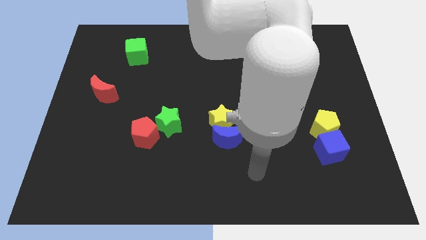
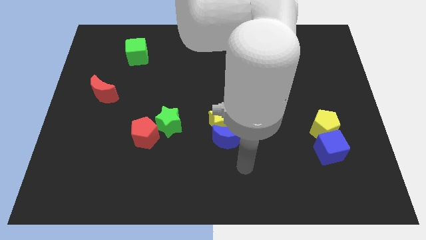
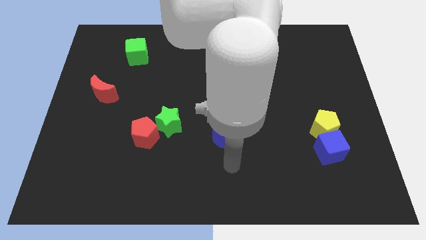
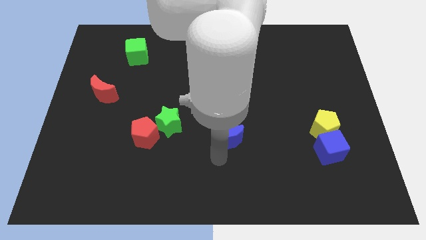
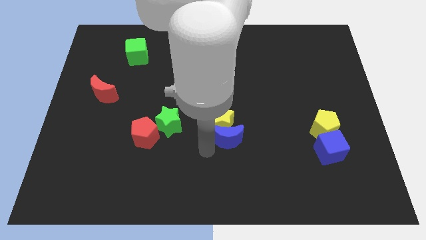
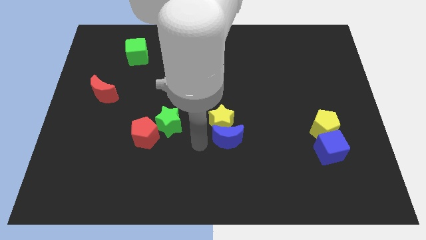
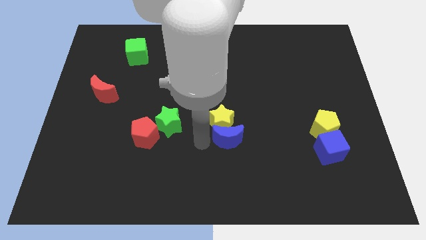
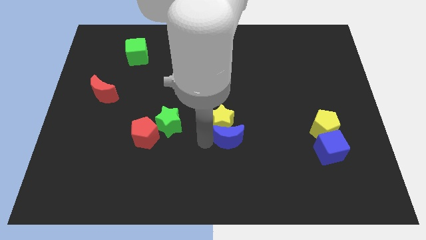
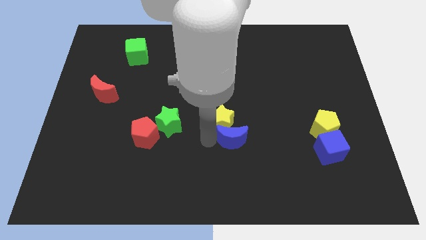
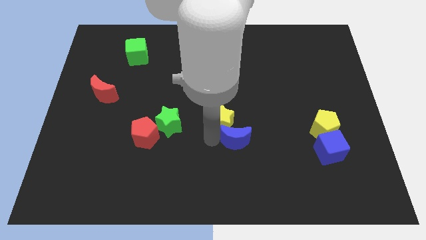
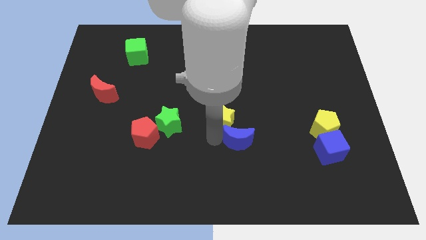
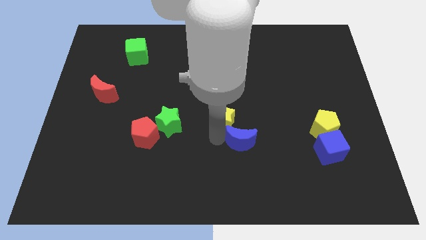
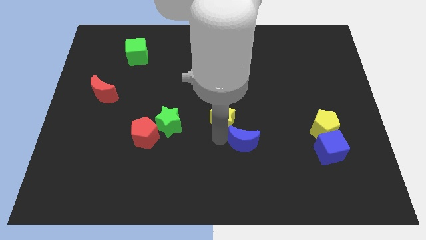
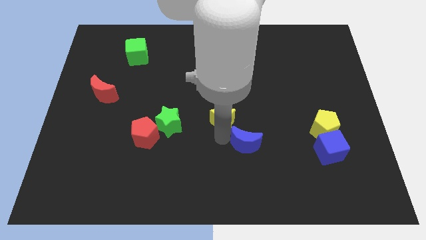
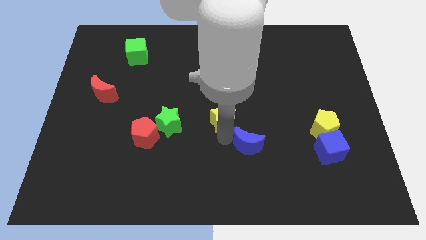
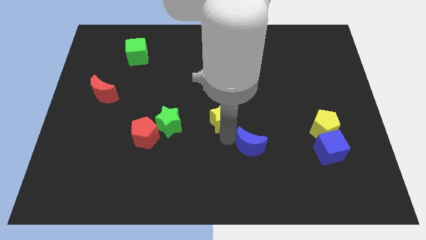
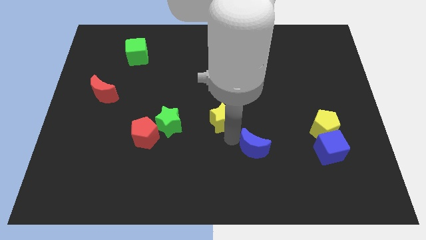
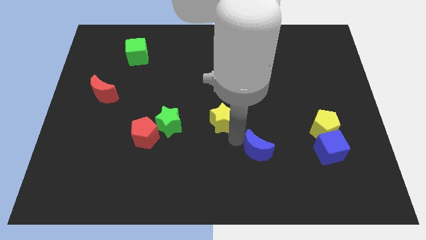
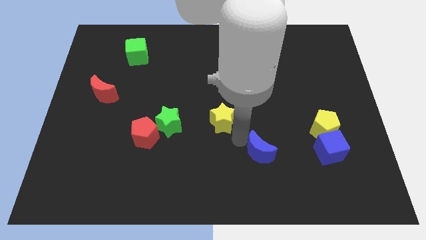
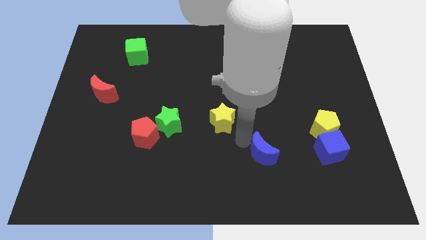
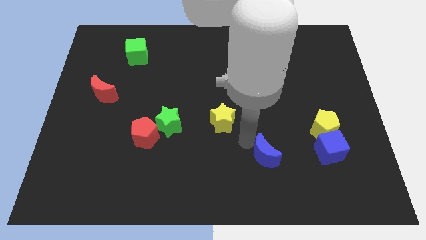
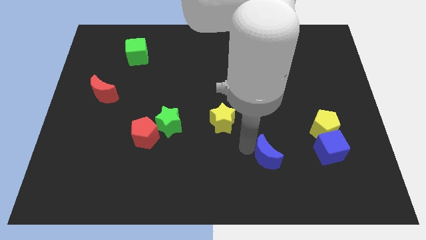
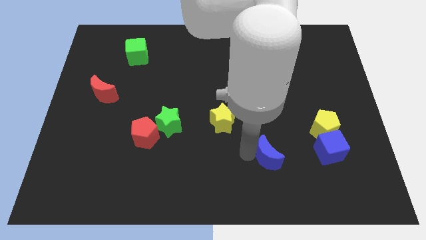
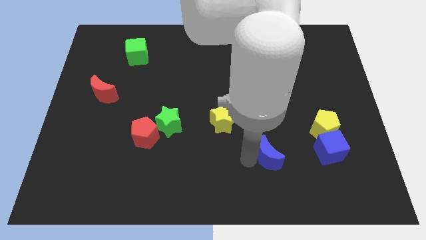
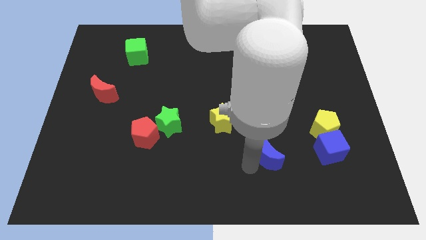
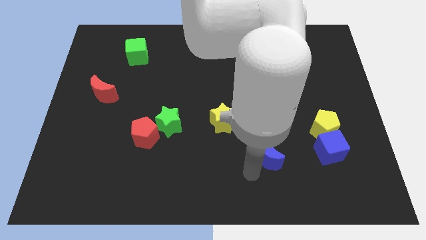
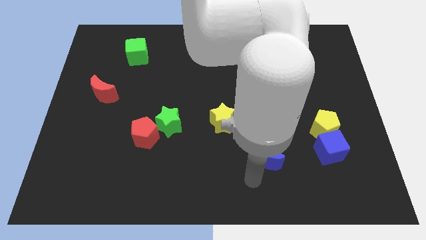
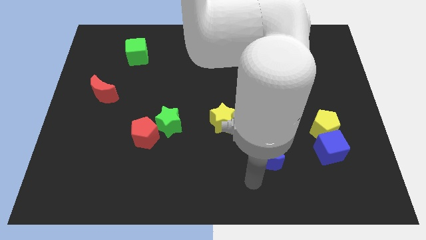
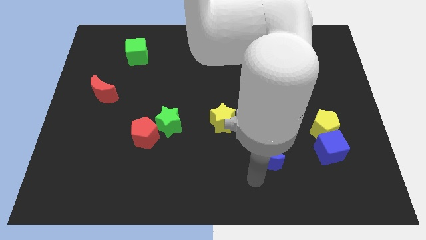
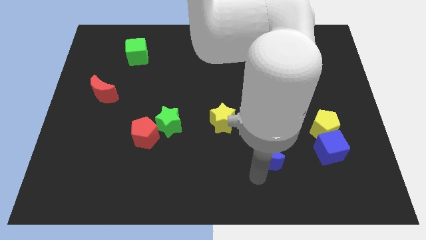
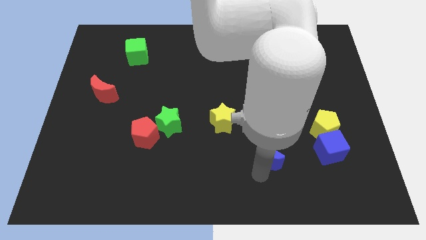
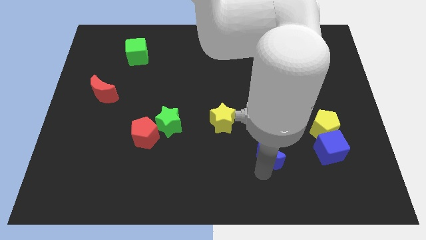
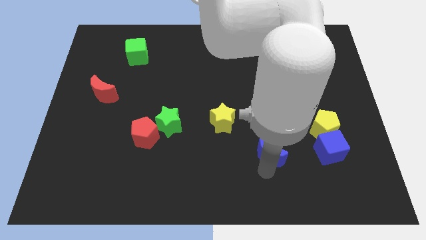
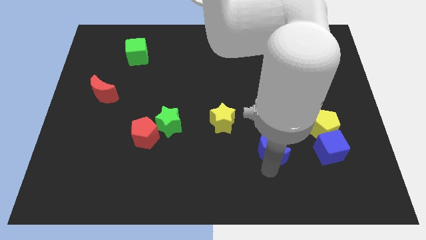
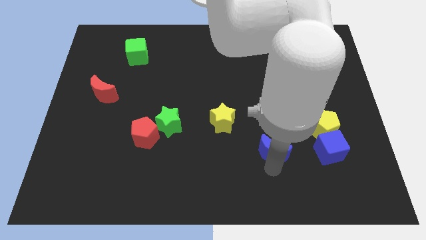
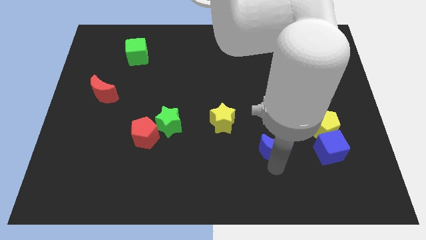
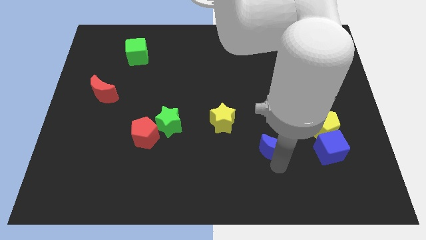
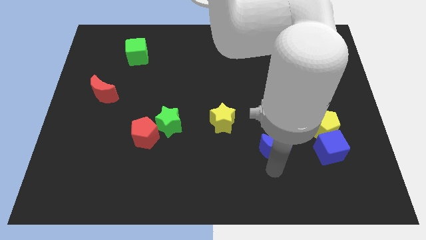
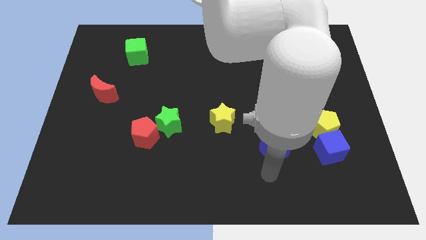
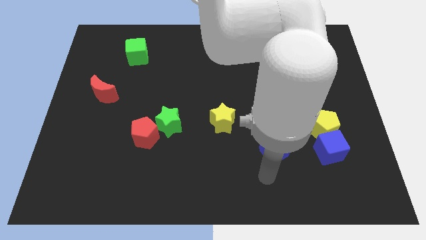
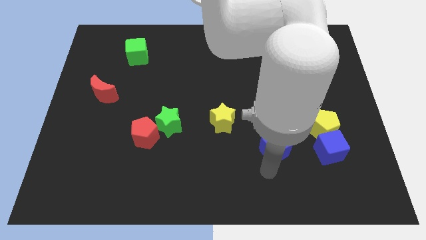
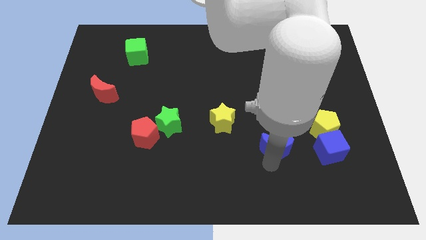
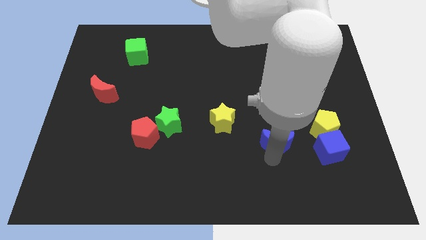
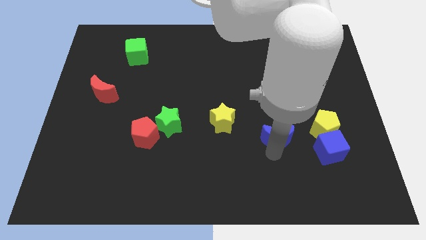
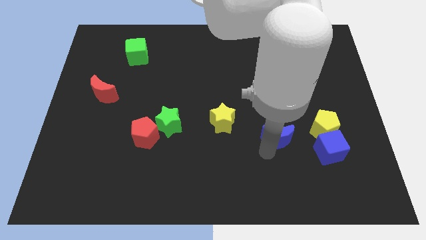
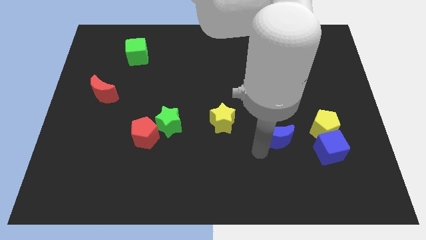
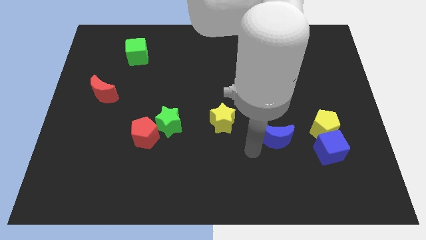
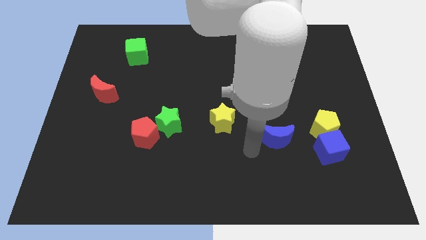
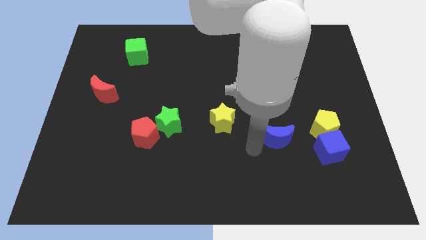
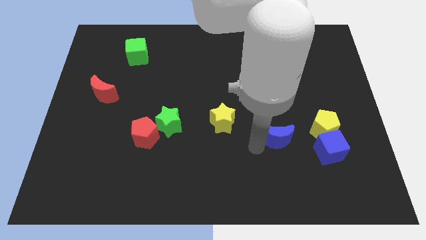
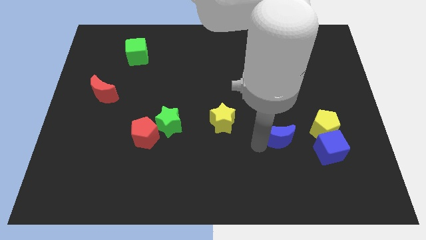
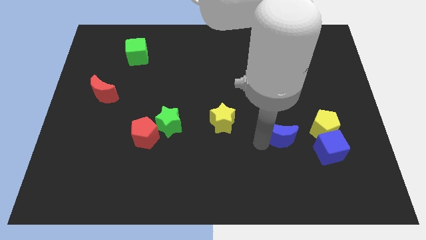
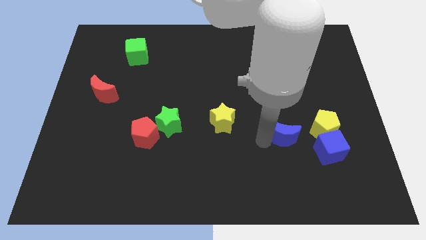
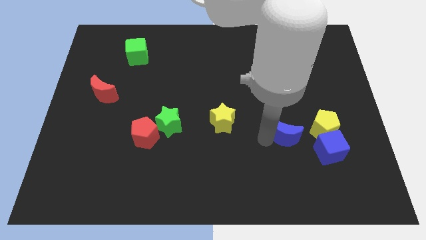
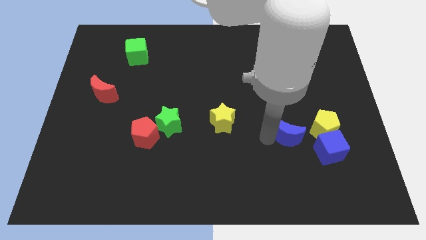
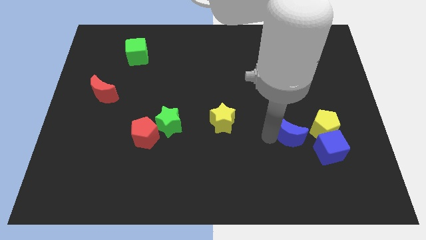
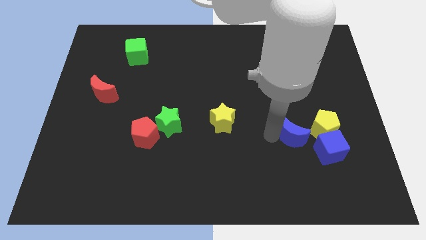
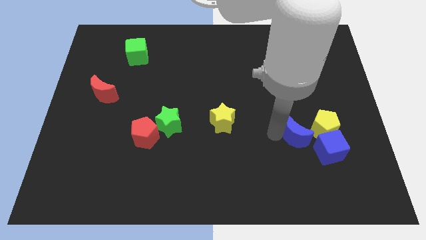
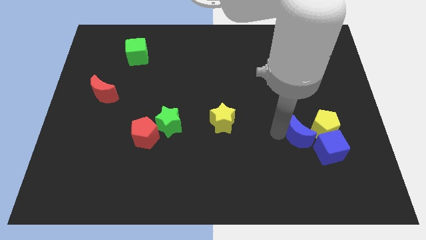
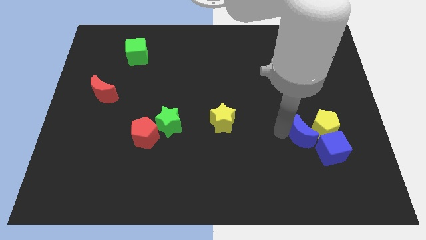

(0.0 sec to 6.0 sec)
push the blue moon to the yellow pentagon

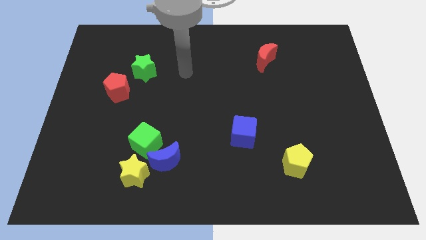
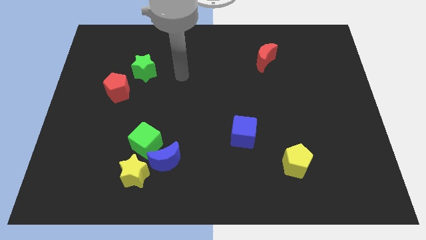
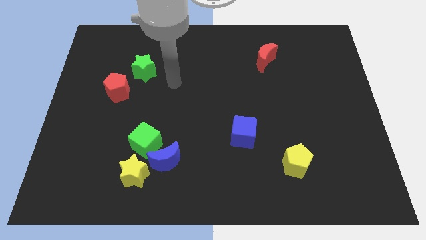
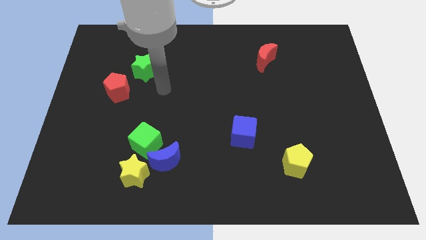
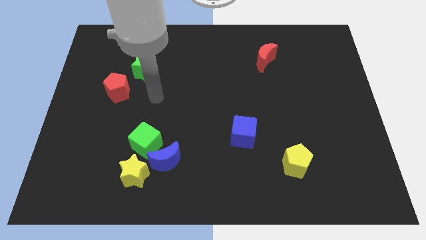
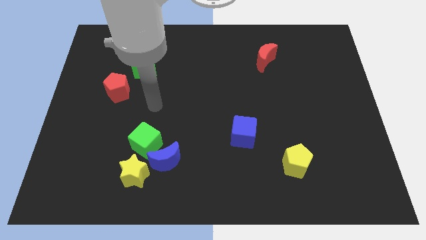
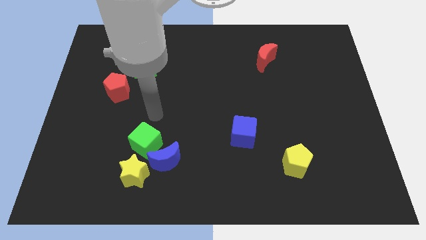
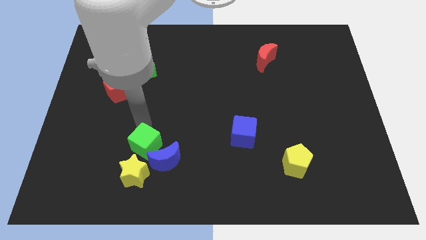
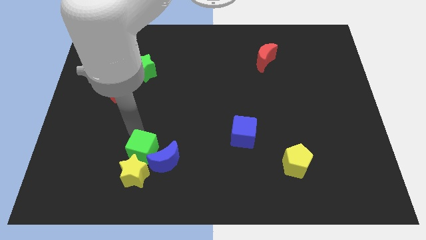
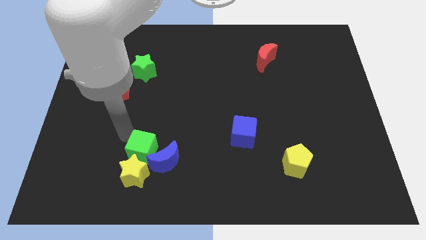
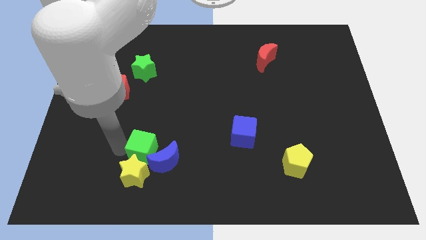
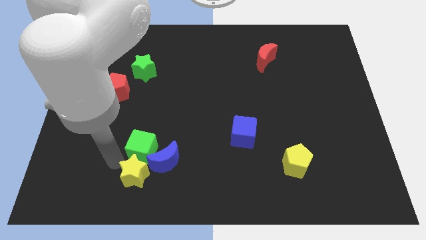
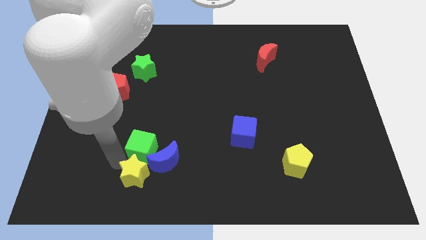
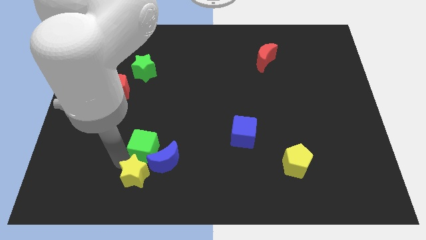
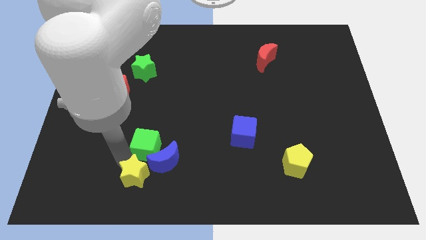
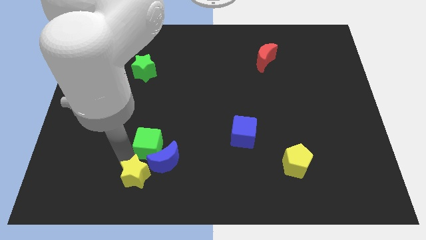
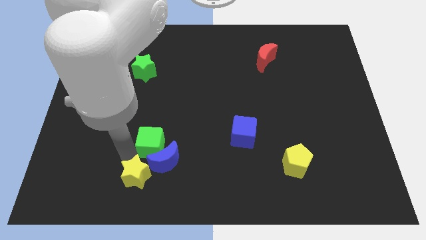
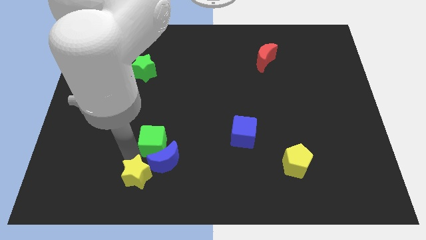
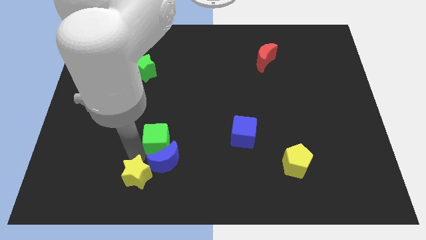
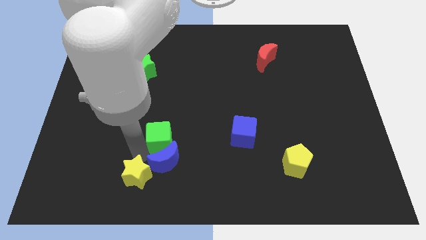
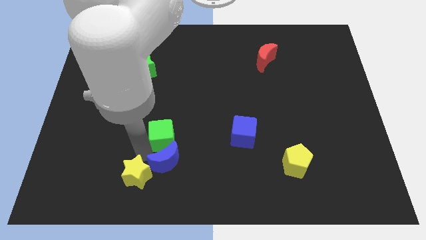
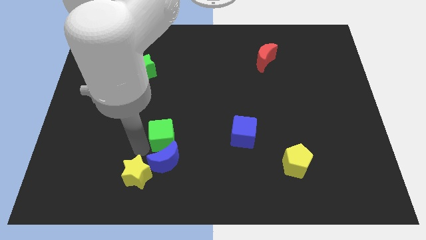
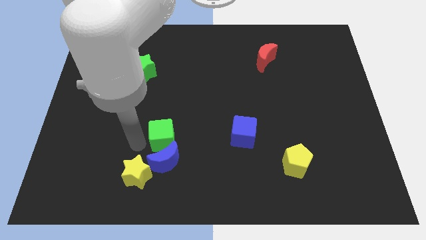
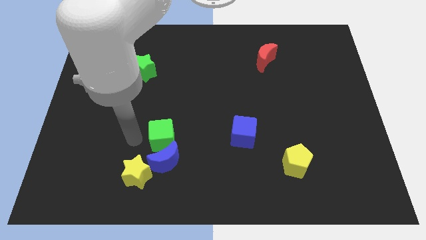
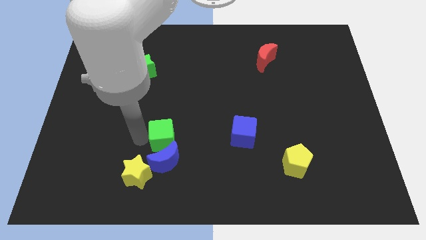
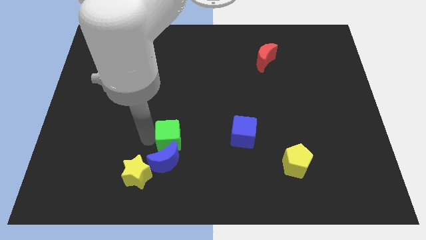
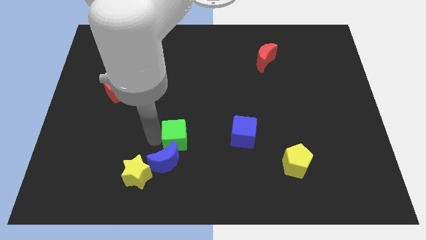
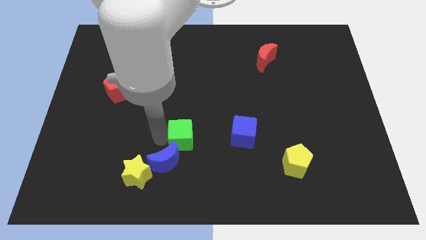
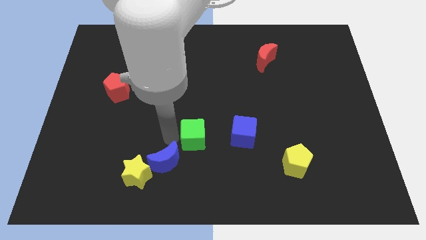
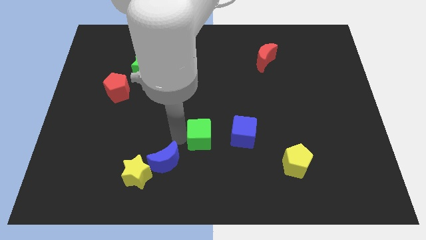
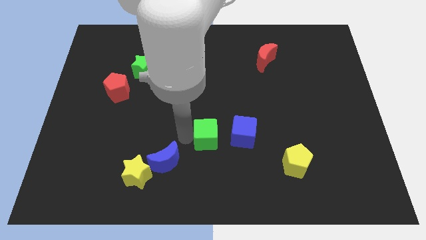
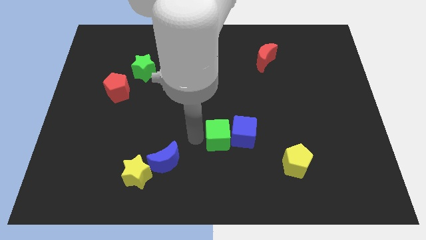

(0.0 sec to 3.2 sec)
push the green cube next to the blue cube
